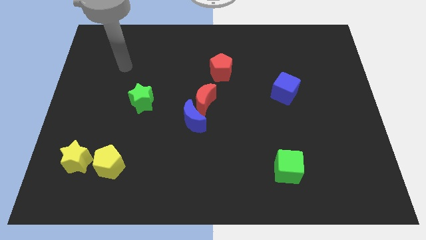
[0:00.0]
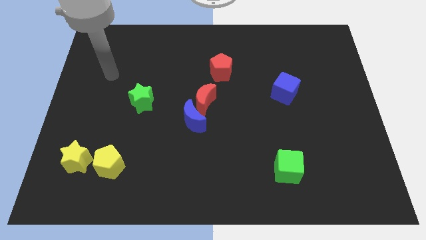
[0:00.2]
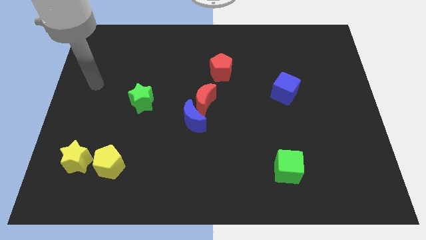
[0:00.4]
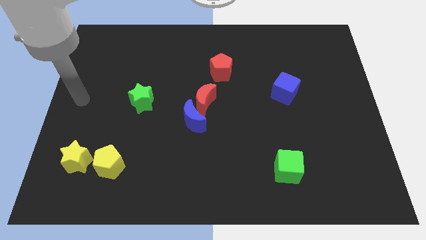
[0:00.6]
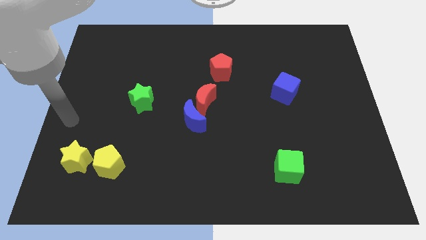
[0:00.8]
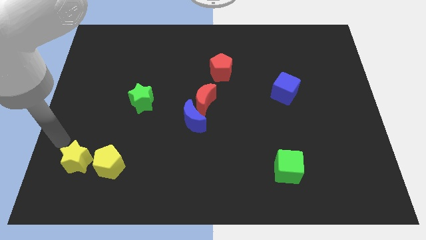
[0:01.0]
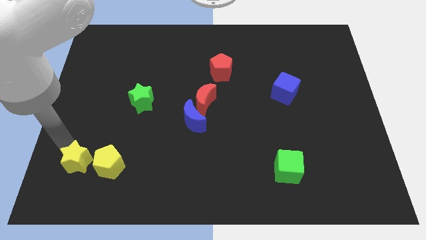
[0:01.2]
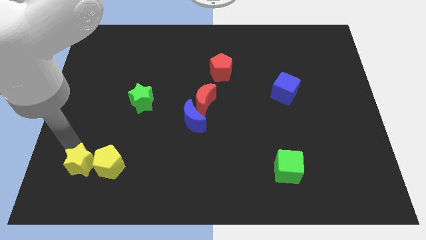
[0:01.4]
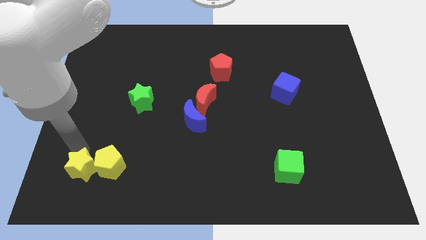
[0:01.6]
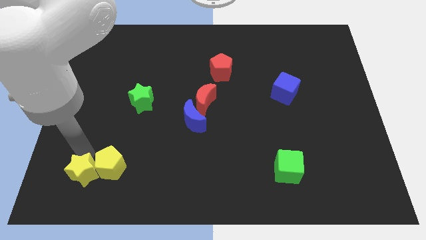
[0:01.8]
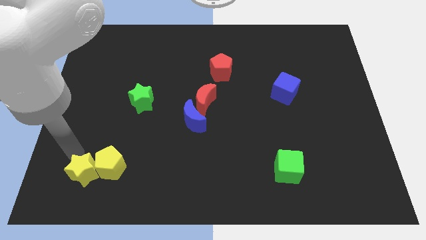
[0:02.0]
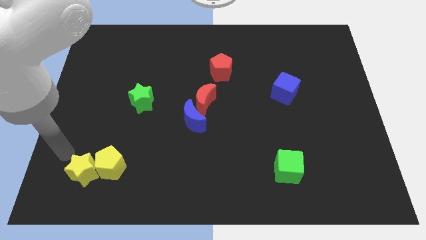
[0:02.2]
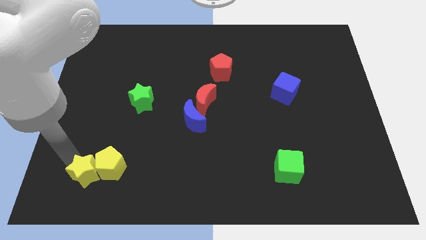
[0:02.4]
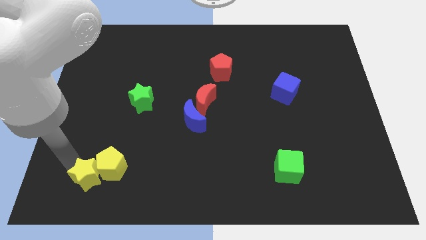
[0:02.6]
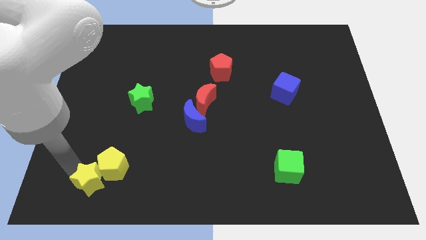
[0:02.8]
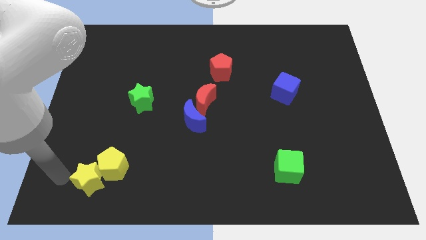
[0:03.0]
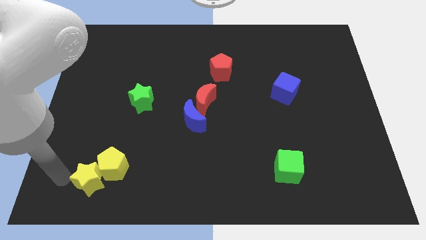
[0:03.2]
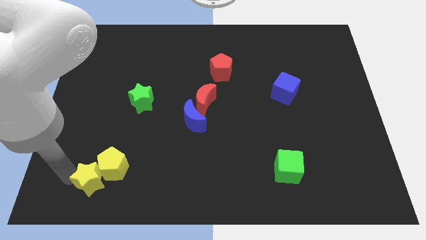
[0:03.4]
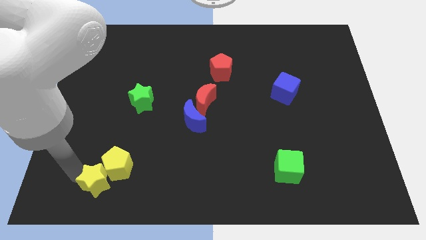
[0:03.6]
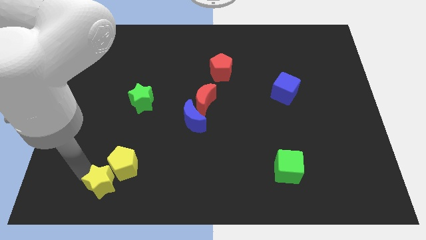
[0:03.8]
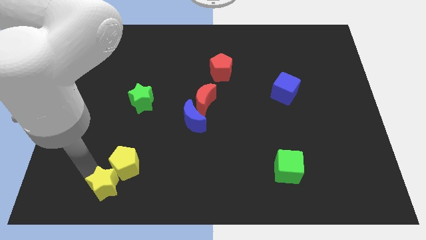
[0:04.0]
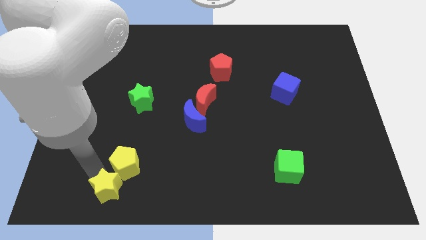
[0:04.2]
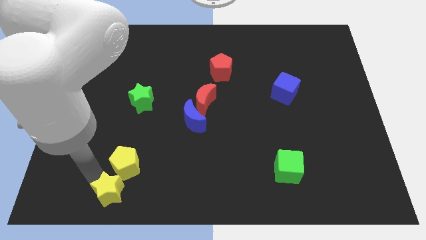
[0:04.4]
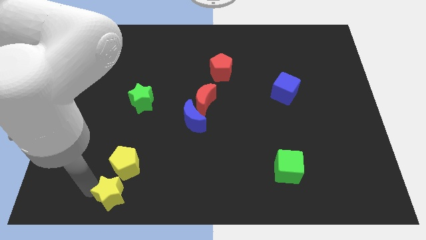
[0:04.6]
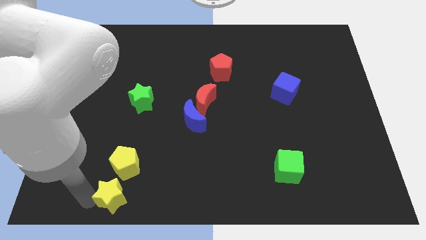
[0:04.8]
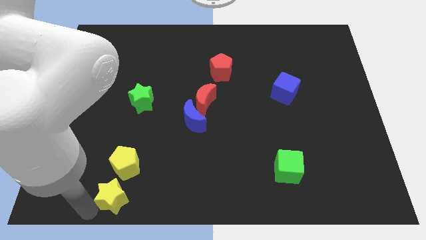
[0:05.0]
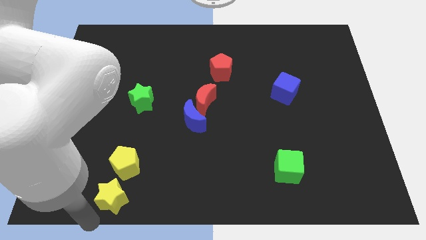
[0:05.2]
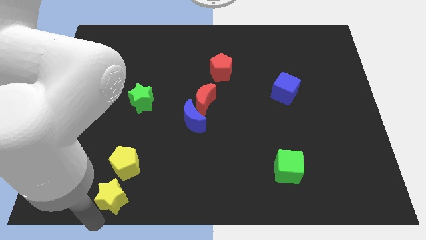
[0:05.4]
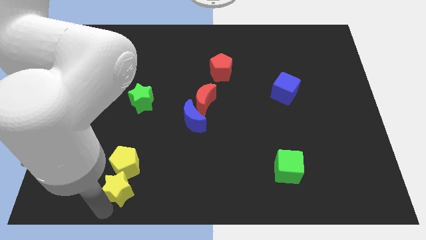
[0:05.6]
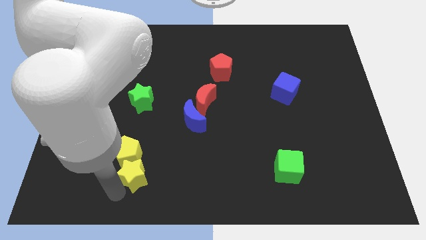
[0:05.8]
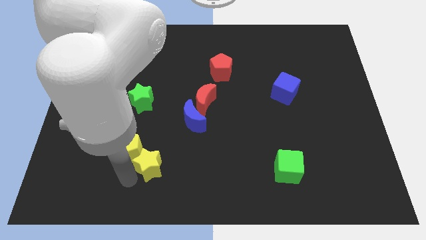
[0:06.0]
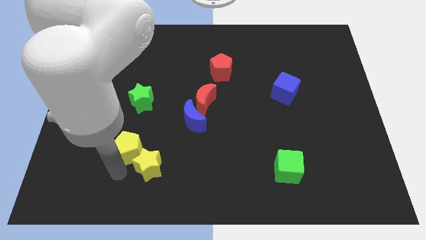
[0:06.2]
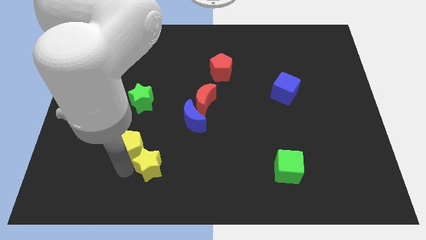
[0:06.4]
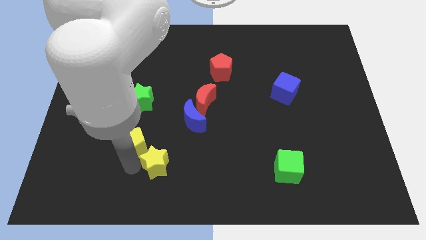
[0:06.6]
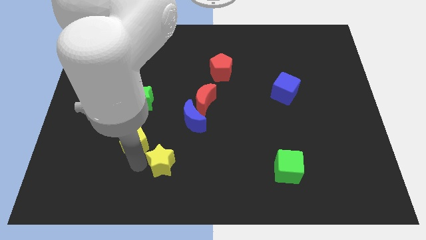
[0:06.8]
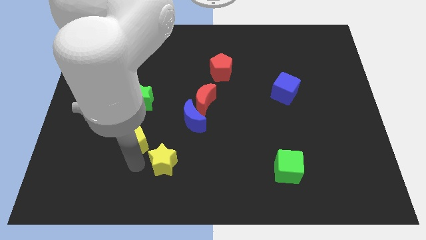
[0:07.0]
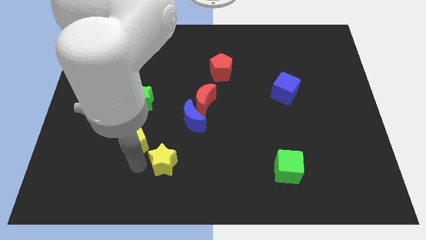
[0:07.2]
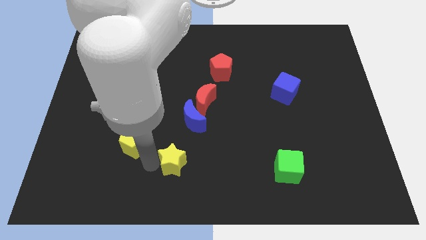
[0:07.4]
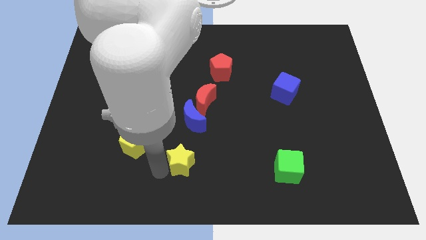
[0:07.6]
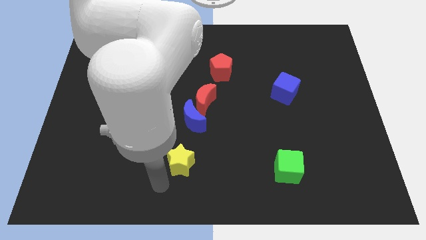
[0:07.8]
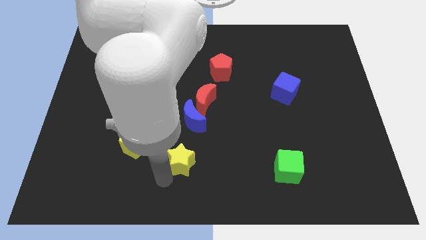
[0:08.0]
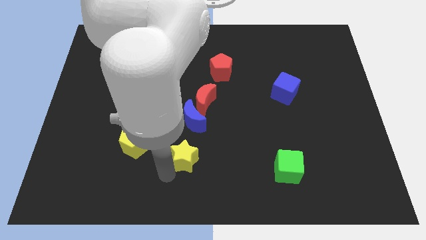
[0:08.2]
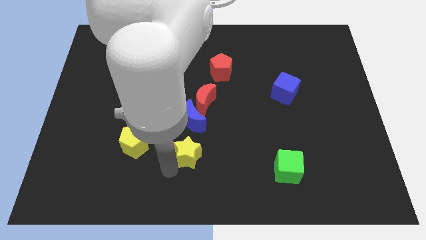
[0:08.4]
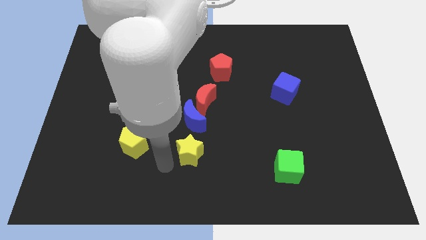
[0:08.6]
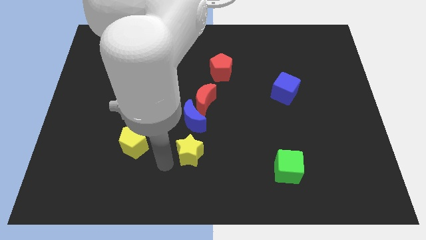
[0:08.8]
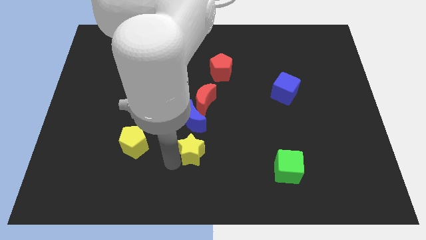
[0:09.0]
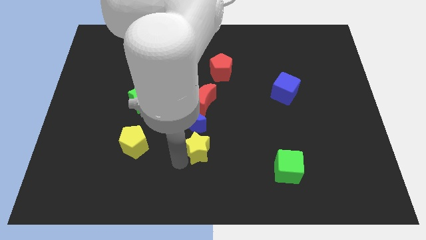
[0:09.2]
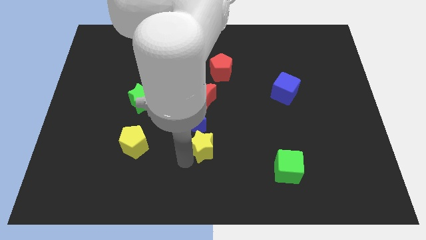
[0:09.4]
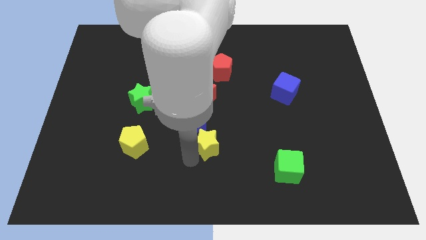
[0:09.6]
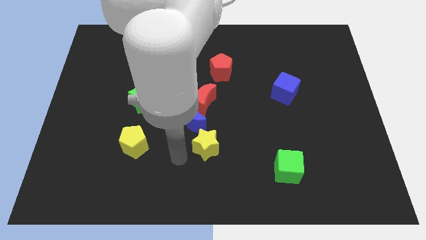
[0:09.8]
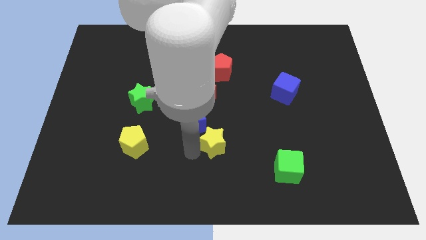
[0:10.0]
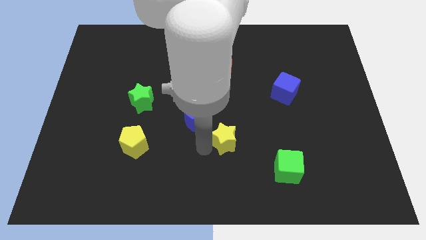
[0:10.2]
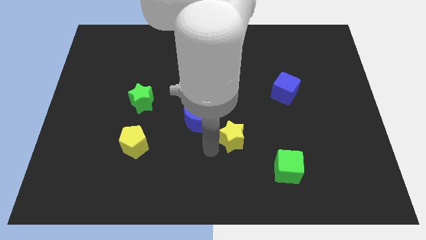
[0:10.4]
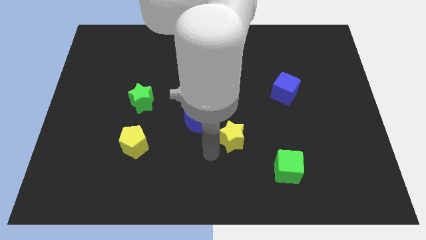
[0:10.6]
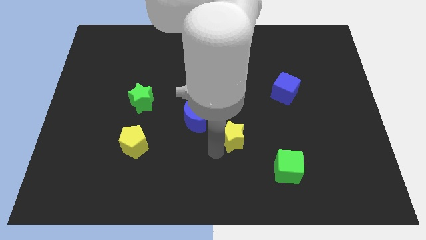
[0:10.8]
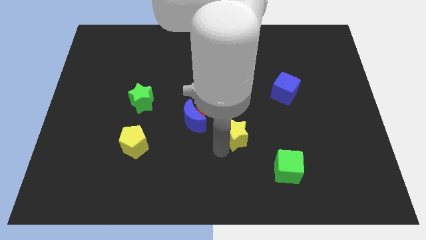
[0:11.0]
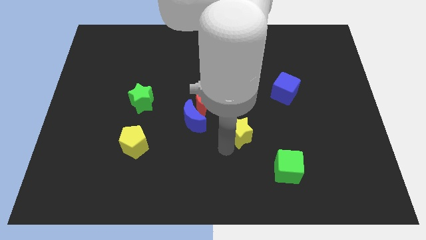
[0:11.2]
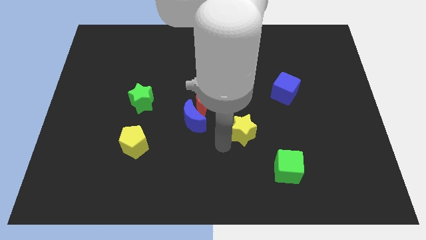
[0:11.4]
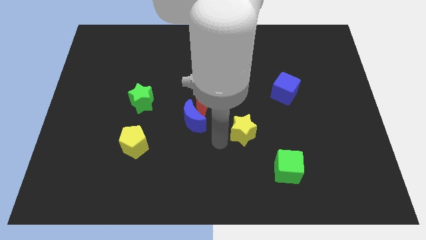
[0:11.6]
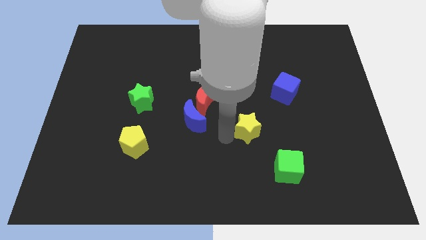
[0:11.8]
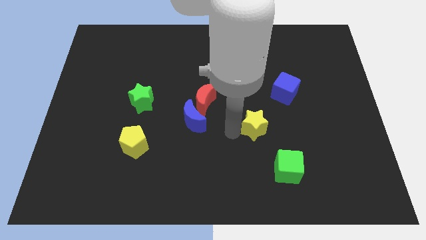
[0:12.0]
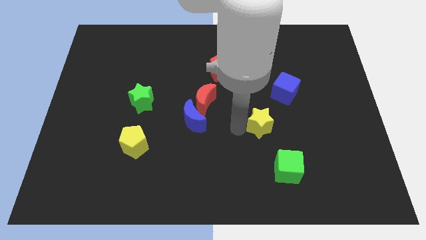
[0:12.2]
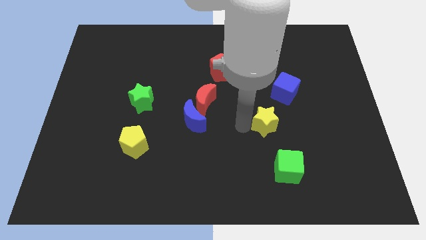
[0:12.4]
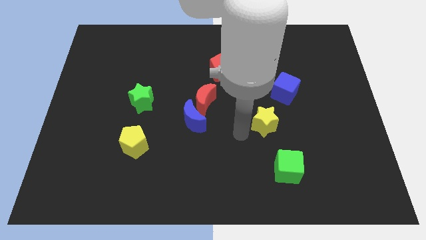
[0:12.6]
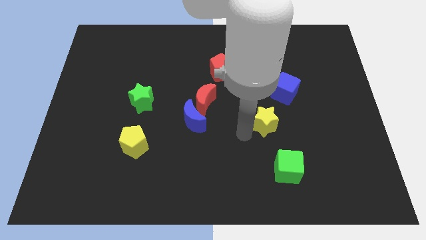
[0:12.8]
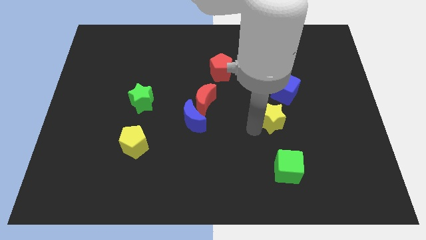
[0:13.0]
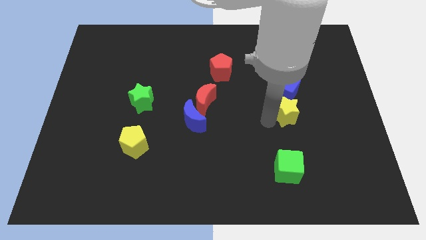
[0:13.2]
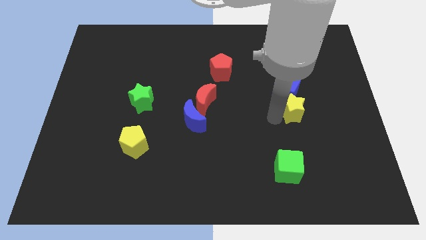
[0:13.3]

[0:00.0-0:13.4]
push the yellow star diagonally down and to the right of the blue cube

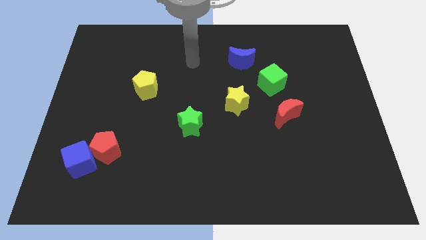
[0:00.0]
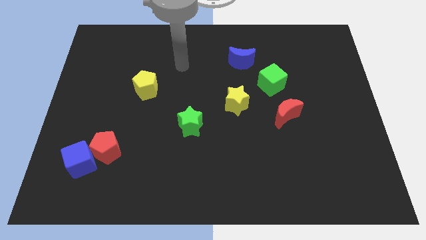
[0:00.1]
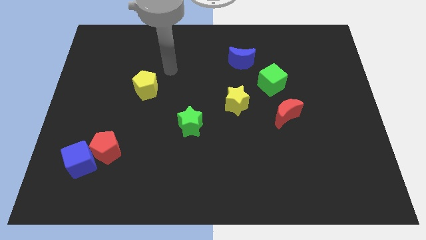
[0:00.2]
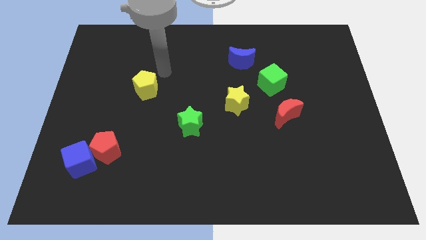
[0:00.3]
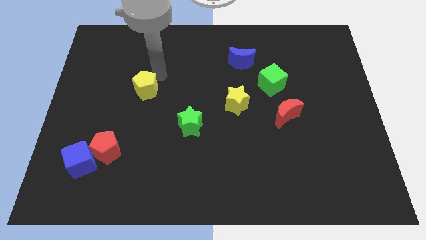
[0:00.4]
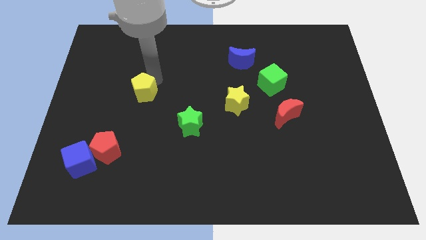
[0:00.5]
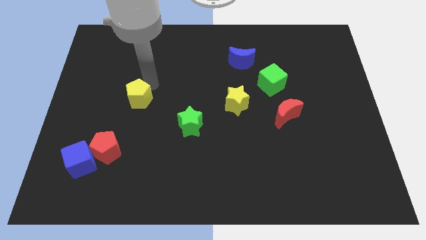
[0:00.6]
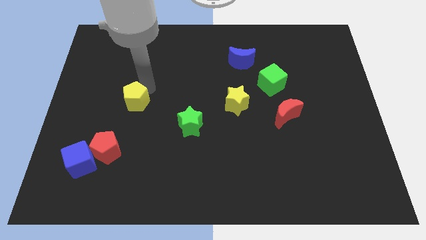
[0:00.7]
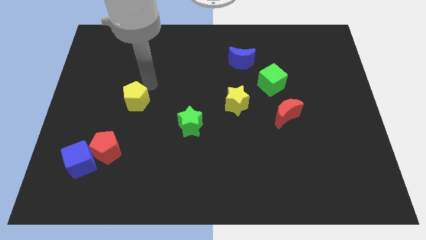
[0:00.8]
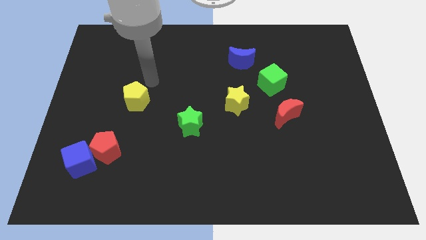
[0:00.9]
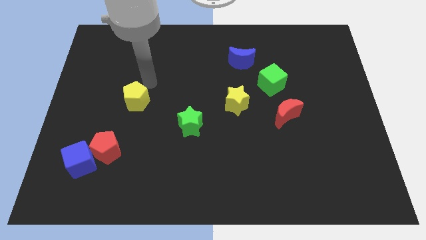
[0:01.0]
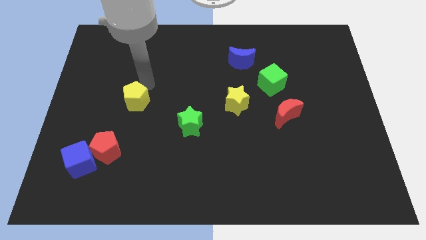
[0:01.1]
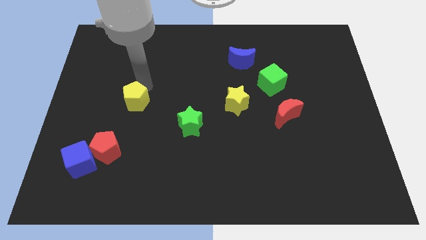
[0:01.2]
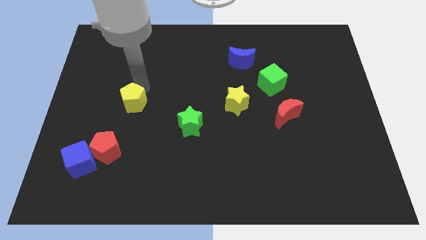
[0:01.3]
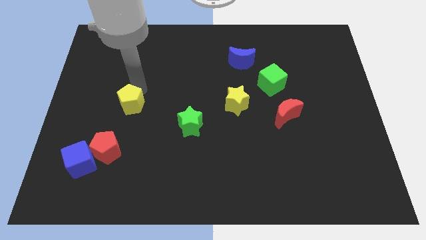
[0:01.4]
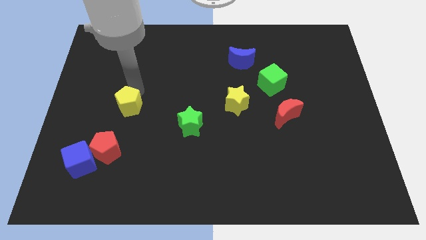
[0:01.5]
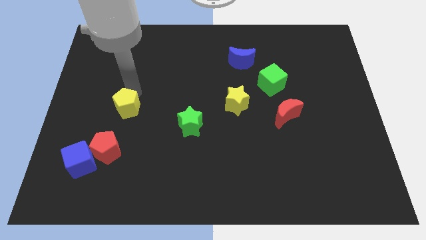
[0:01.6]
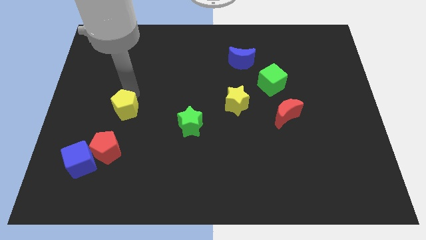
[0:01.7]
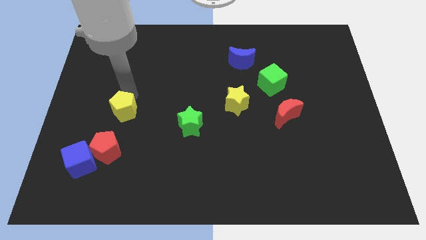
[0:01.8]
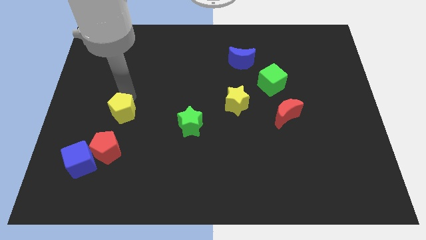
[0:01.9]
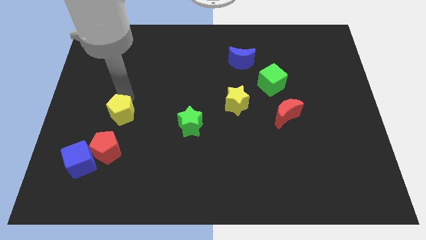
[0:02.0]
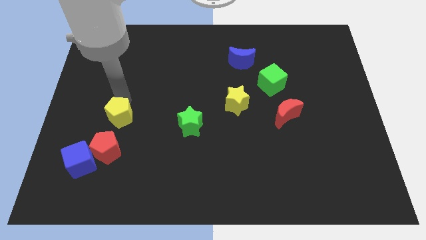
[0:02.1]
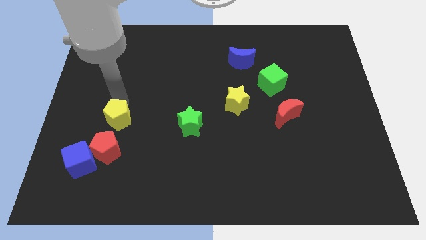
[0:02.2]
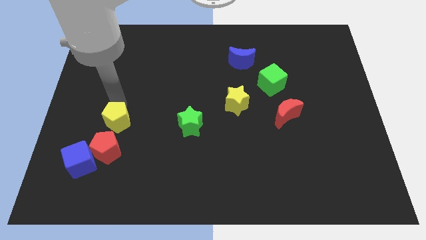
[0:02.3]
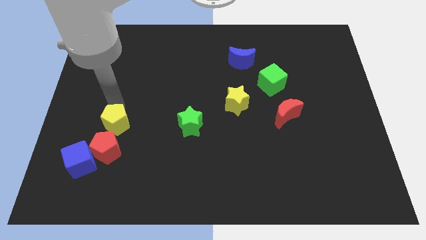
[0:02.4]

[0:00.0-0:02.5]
slide the yellow pentagon to the top right of the blue cube
